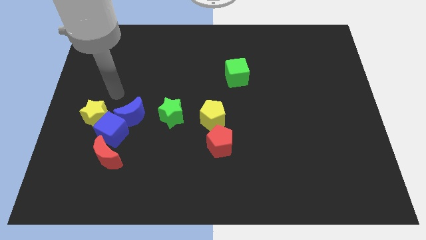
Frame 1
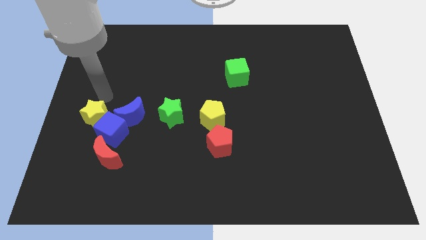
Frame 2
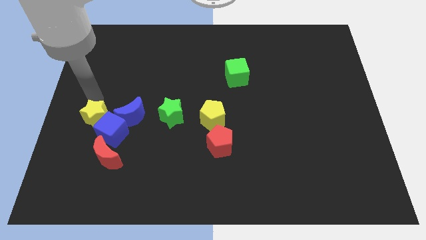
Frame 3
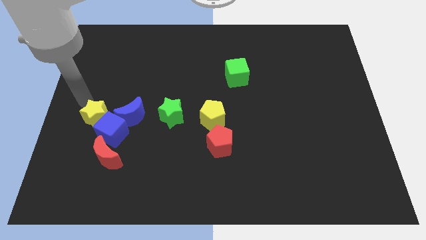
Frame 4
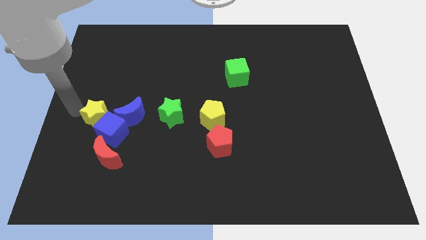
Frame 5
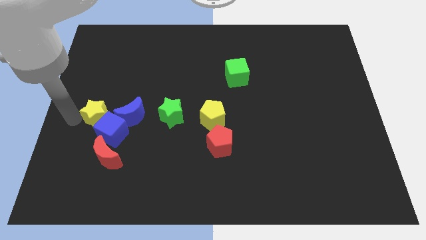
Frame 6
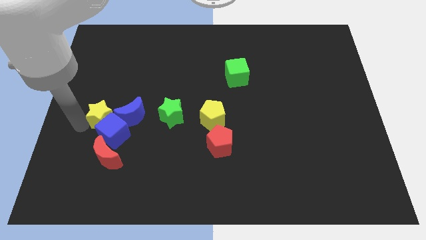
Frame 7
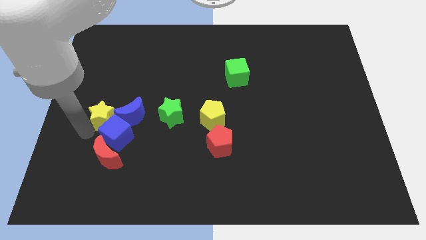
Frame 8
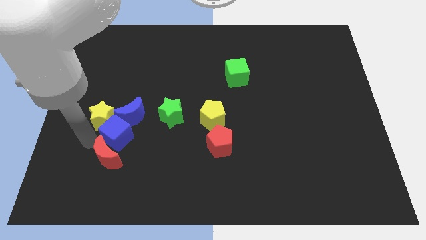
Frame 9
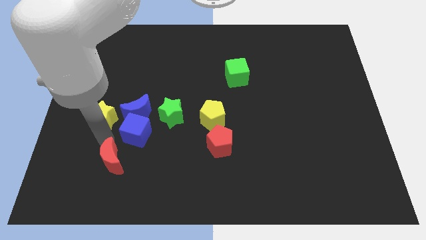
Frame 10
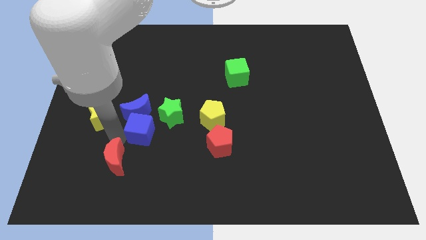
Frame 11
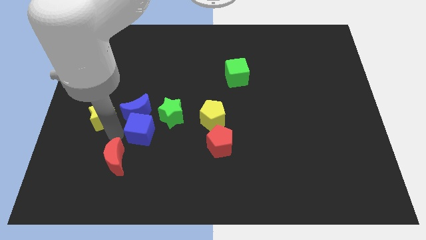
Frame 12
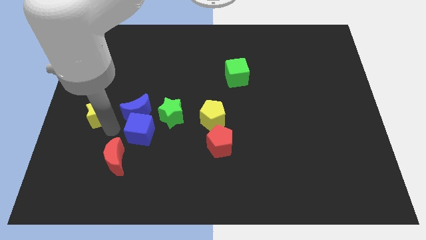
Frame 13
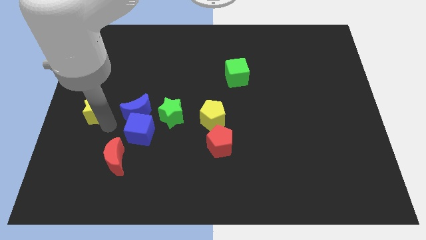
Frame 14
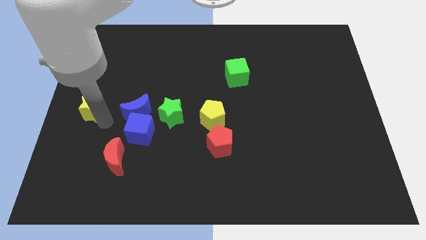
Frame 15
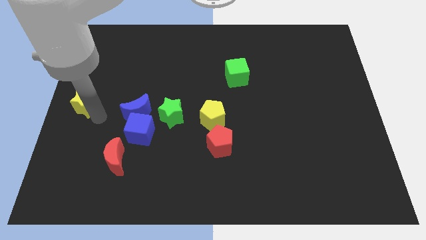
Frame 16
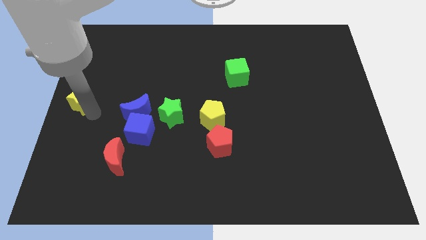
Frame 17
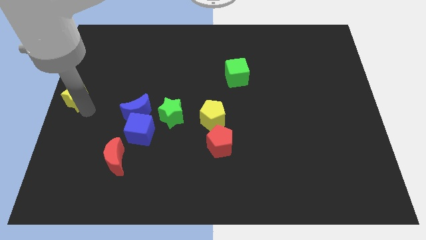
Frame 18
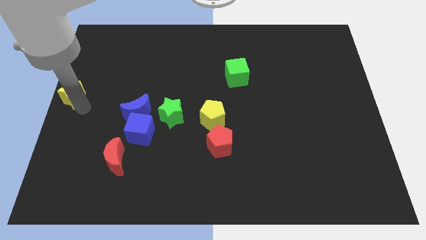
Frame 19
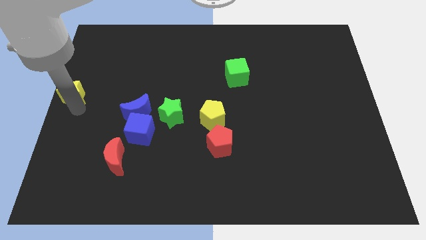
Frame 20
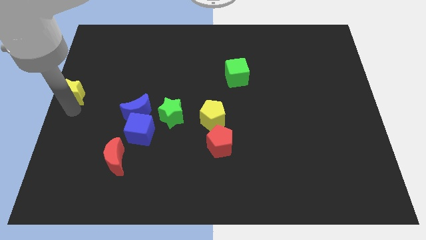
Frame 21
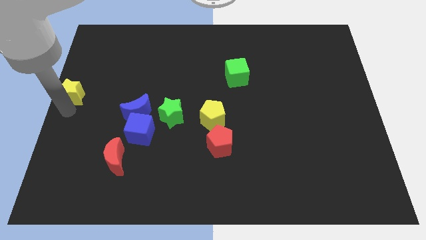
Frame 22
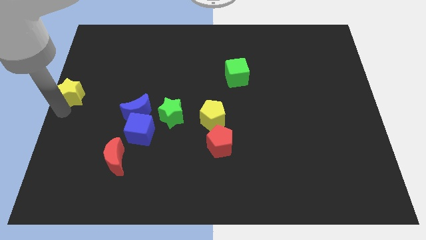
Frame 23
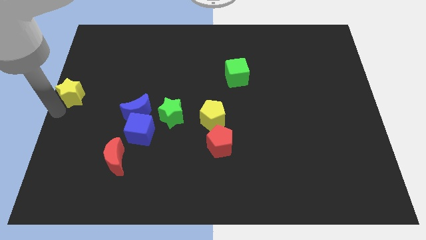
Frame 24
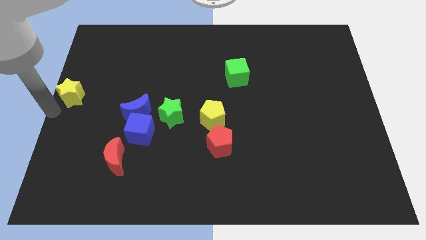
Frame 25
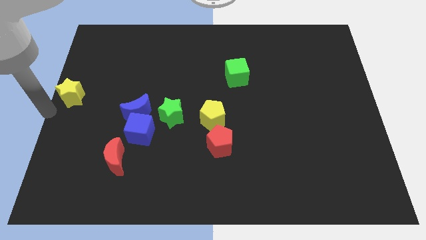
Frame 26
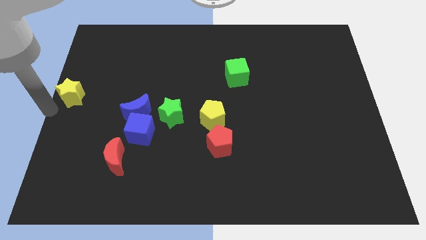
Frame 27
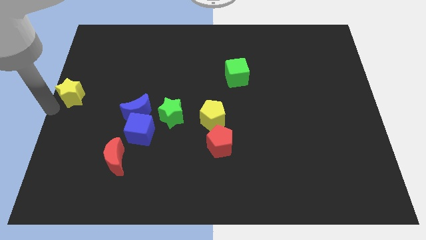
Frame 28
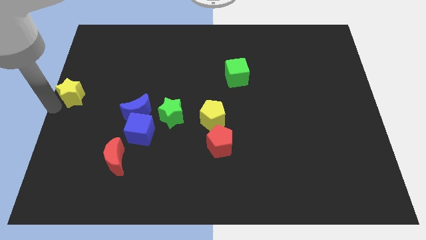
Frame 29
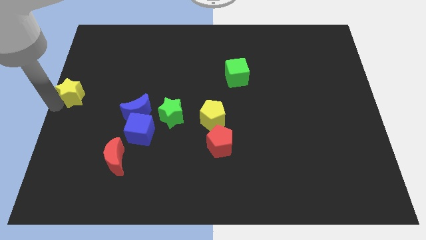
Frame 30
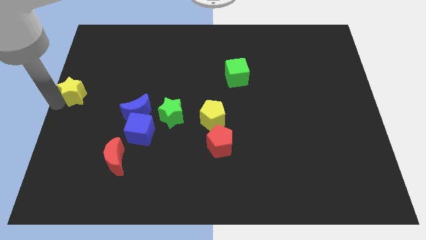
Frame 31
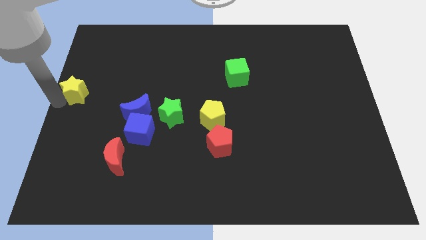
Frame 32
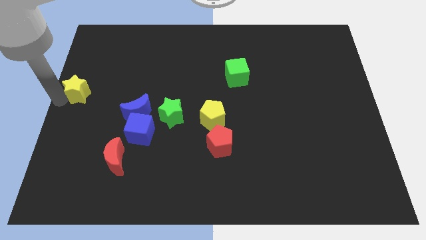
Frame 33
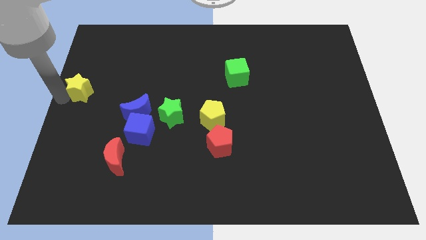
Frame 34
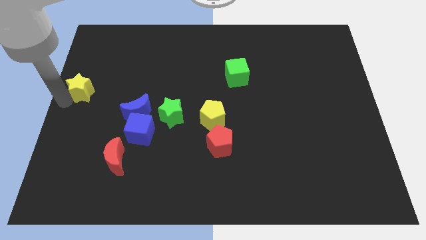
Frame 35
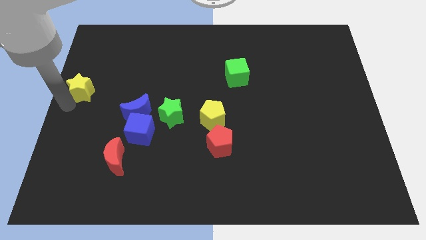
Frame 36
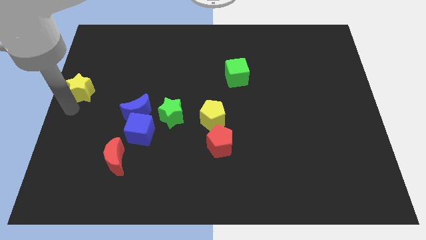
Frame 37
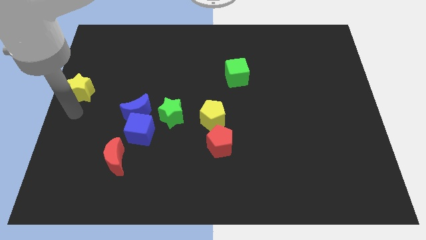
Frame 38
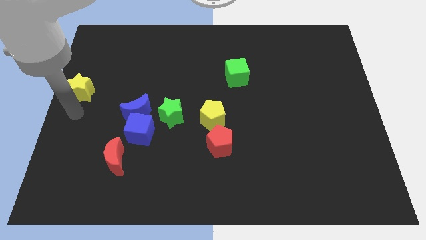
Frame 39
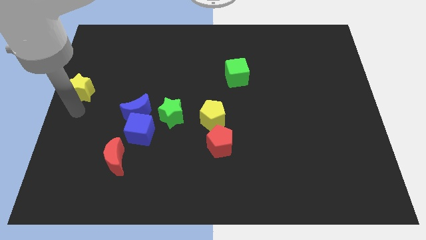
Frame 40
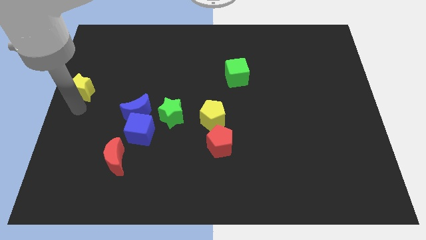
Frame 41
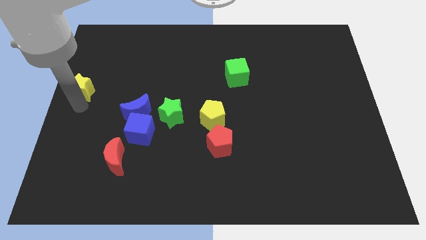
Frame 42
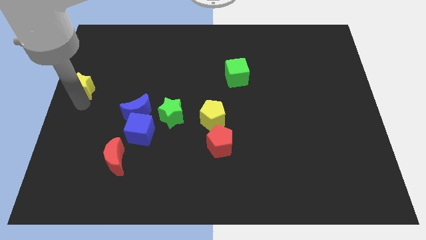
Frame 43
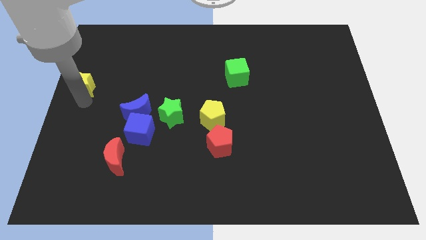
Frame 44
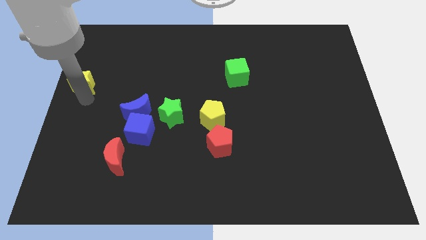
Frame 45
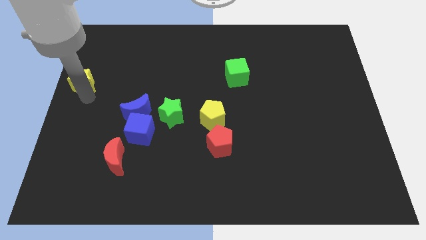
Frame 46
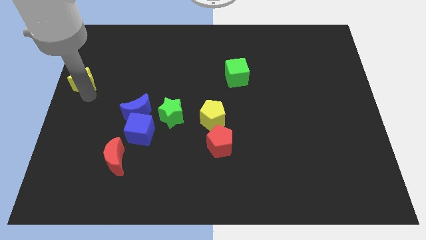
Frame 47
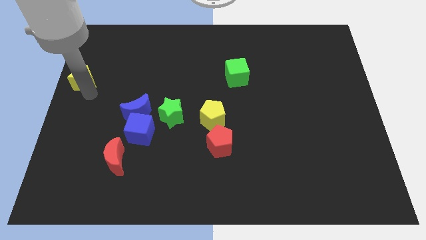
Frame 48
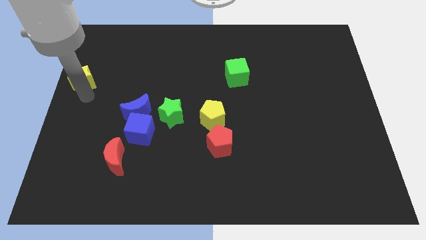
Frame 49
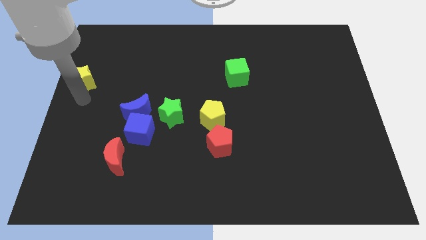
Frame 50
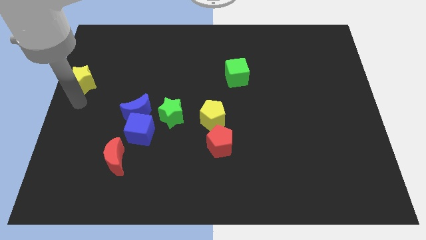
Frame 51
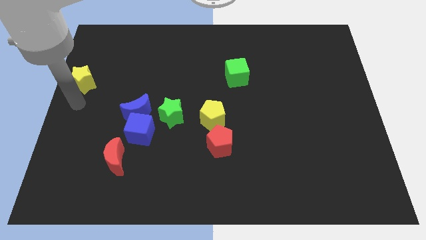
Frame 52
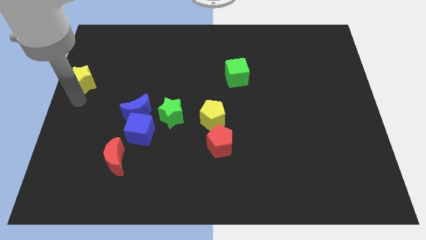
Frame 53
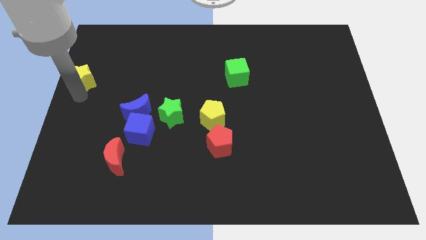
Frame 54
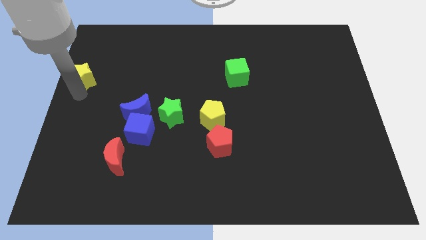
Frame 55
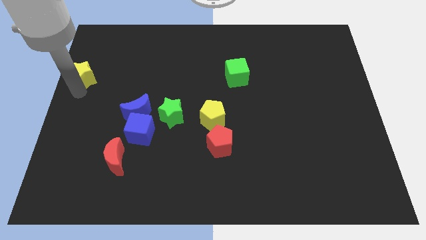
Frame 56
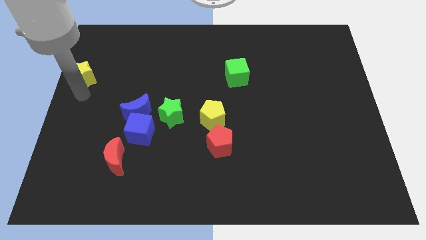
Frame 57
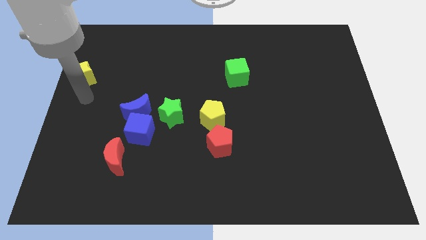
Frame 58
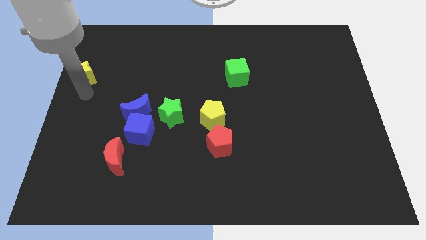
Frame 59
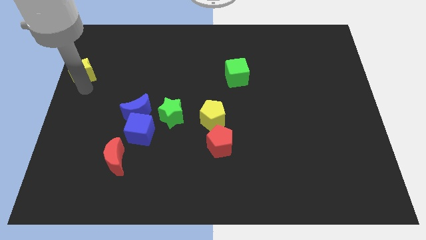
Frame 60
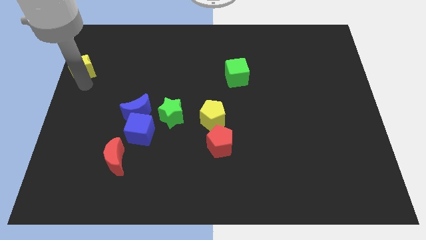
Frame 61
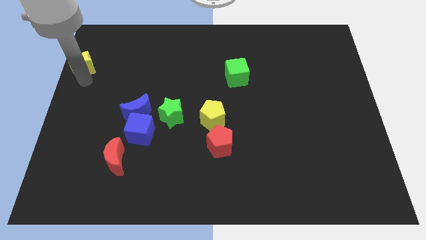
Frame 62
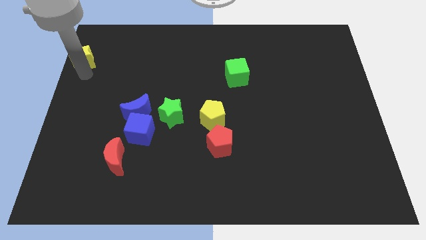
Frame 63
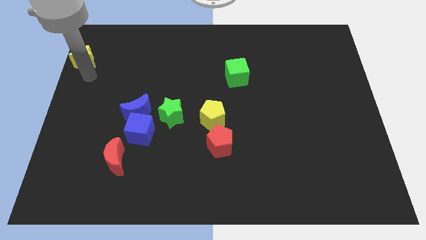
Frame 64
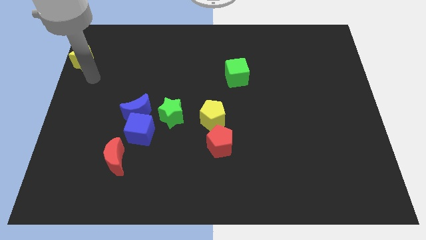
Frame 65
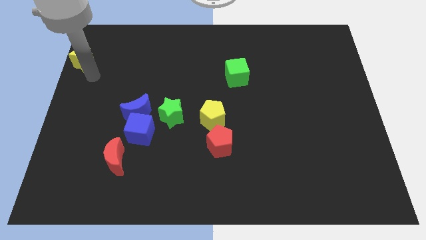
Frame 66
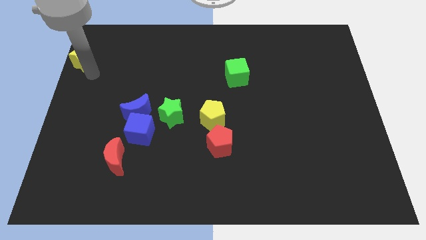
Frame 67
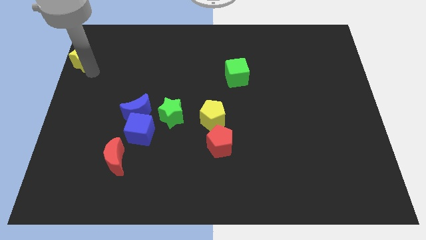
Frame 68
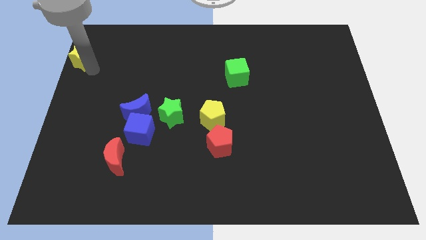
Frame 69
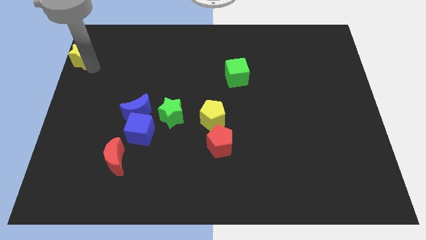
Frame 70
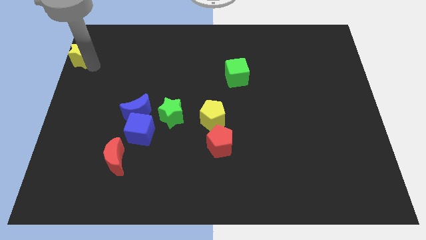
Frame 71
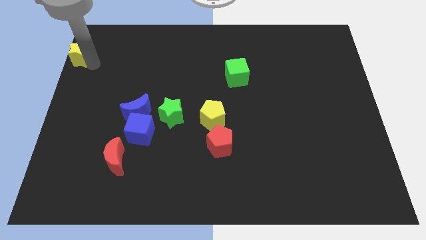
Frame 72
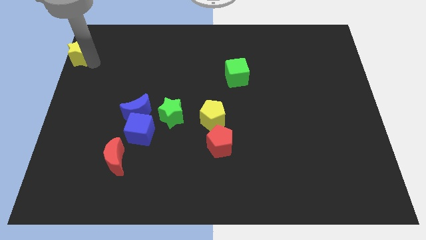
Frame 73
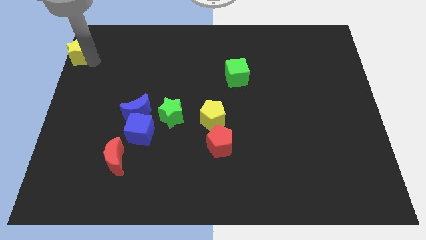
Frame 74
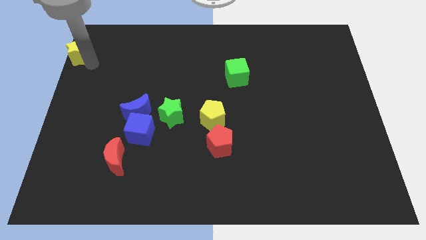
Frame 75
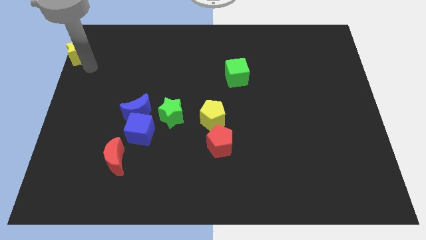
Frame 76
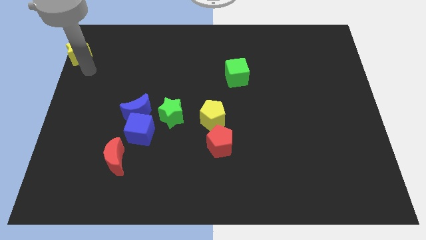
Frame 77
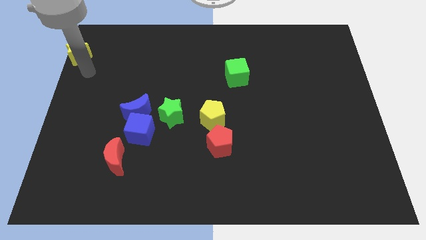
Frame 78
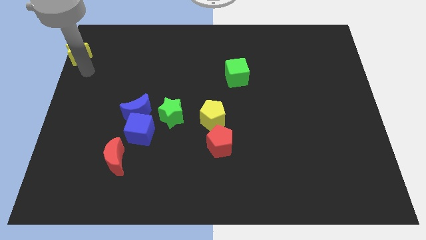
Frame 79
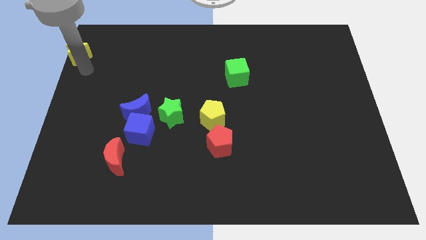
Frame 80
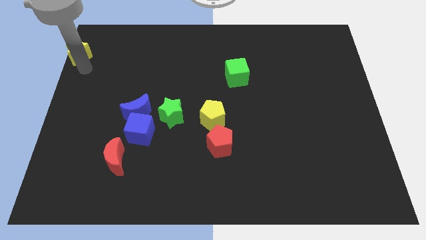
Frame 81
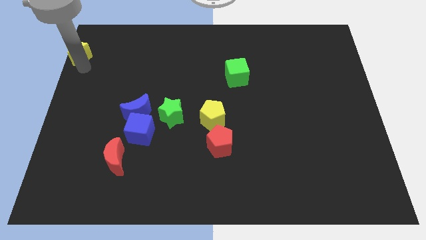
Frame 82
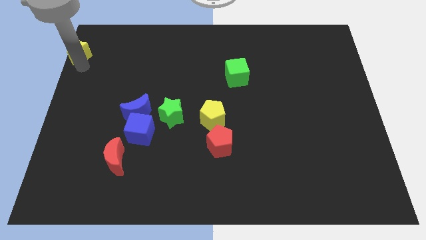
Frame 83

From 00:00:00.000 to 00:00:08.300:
slide the yellow star to the upper left corner
